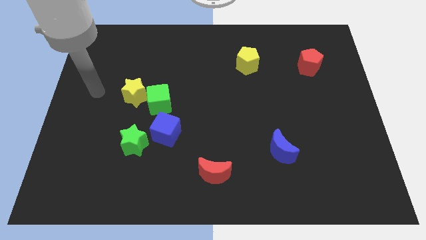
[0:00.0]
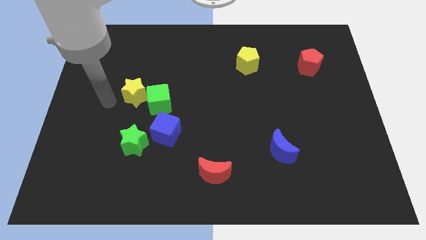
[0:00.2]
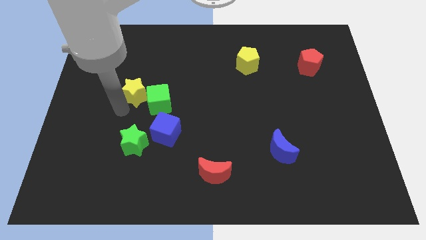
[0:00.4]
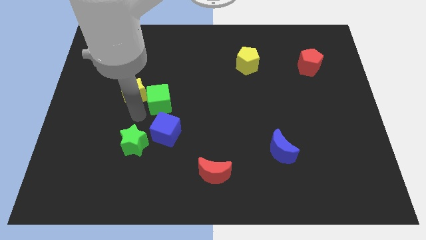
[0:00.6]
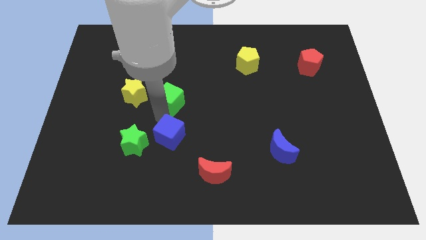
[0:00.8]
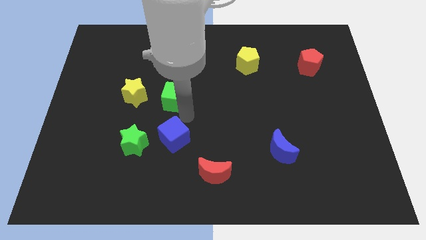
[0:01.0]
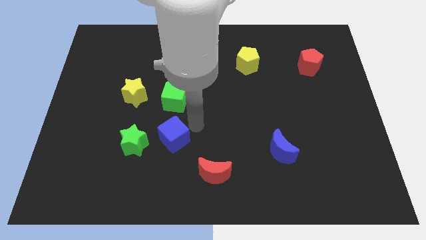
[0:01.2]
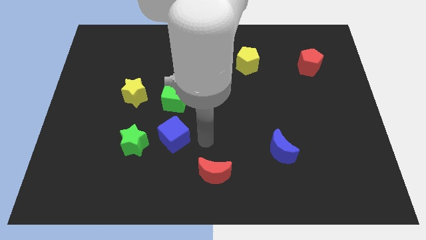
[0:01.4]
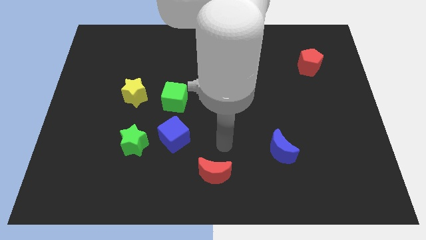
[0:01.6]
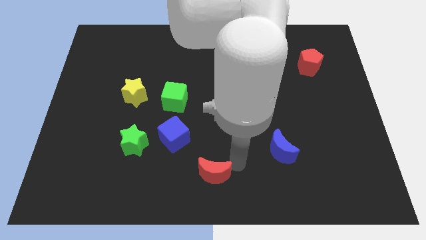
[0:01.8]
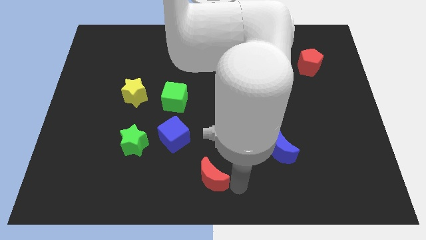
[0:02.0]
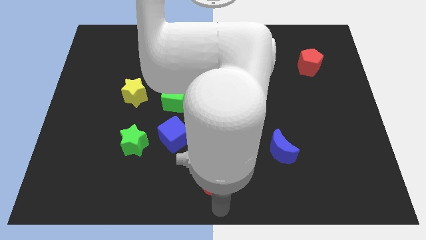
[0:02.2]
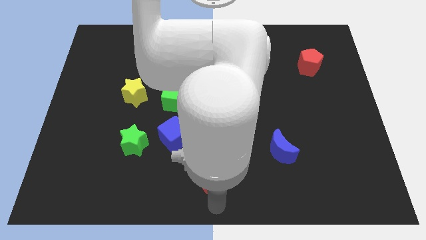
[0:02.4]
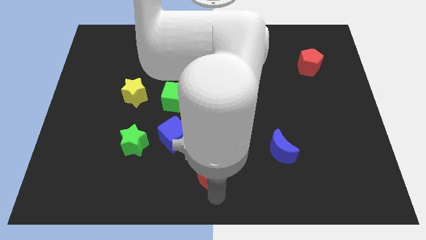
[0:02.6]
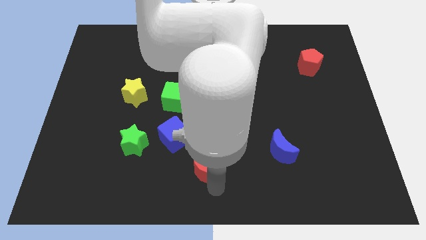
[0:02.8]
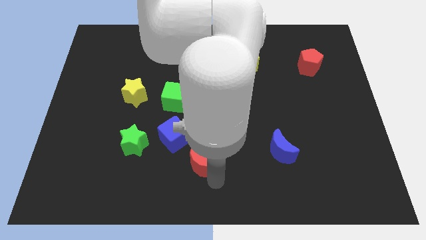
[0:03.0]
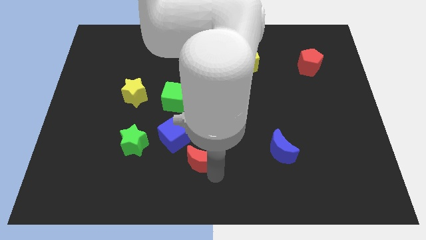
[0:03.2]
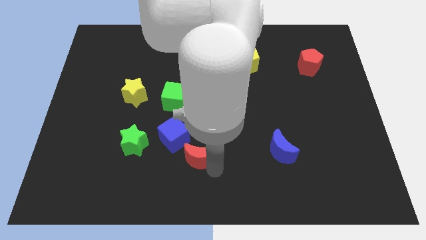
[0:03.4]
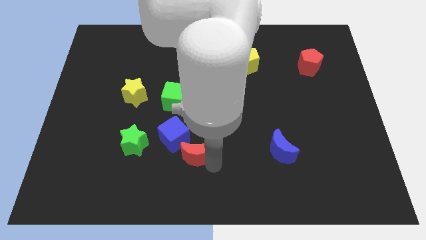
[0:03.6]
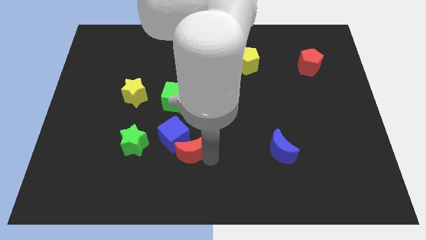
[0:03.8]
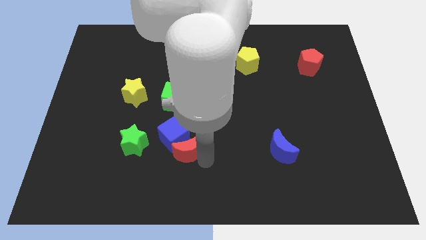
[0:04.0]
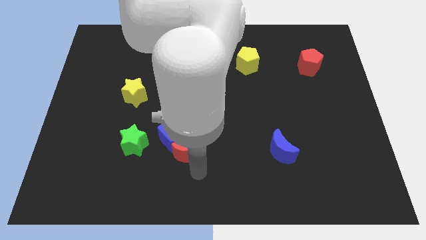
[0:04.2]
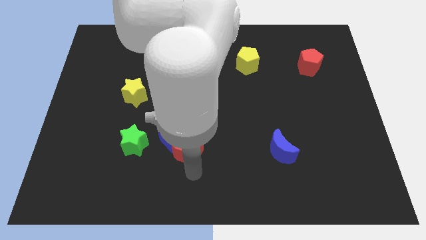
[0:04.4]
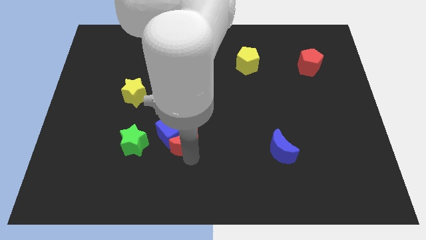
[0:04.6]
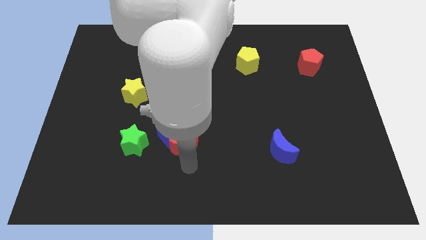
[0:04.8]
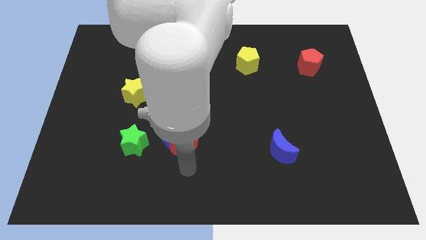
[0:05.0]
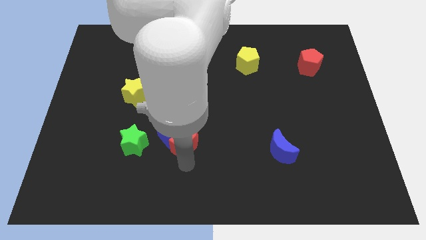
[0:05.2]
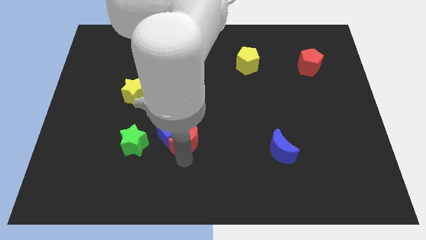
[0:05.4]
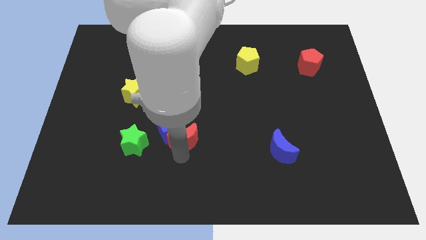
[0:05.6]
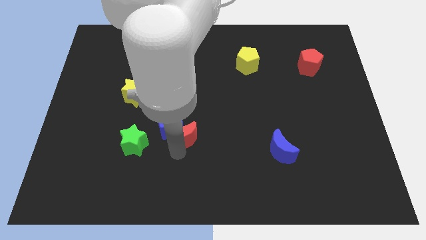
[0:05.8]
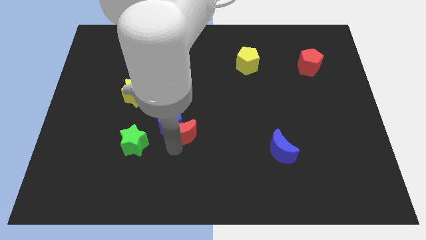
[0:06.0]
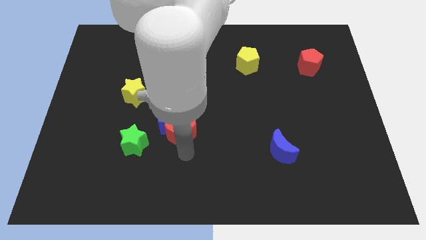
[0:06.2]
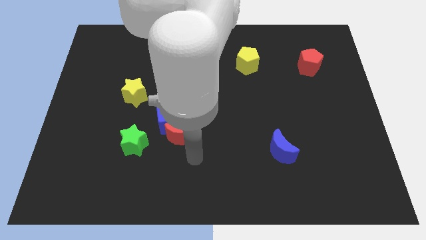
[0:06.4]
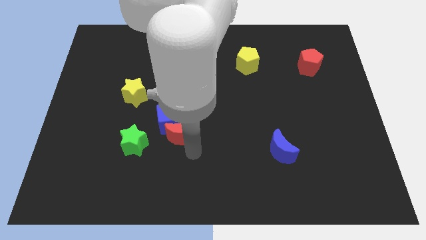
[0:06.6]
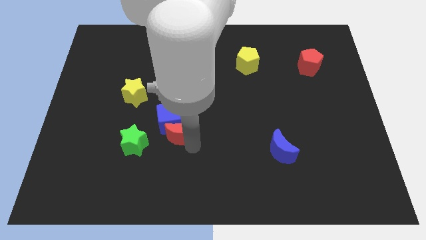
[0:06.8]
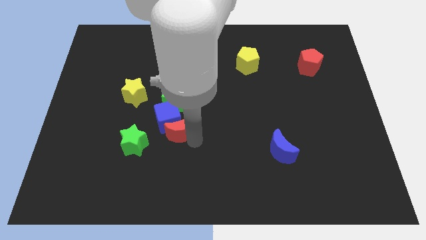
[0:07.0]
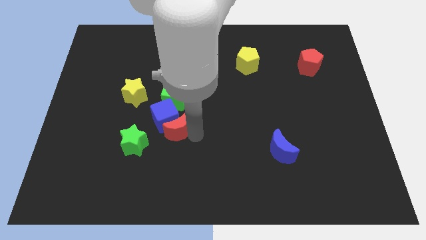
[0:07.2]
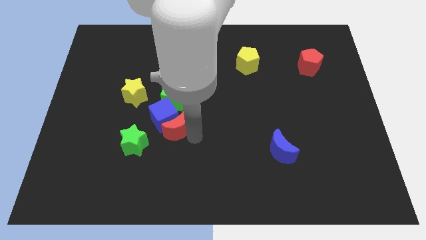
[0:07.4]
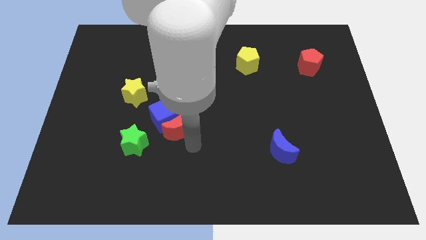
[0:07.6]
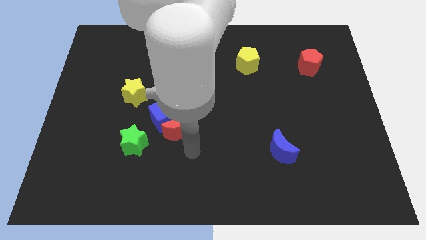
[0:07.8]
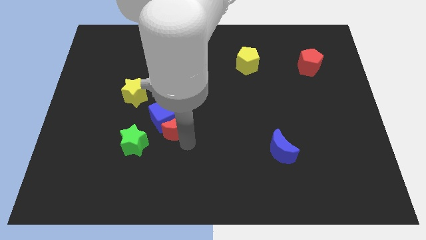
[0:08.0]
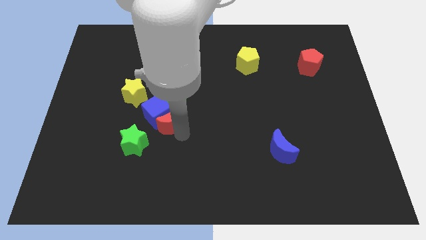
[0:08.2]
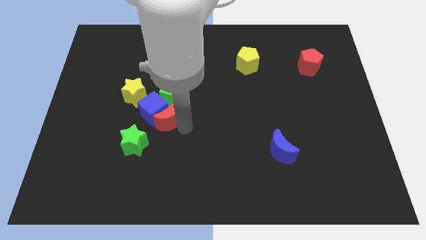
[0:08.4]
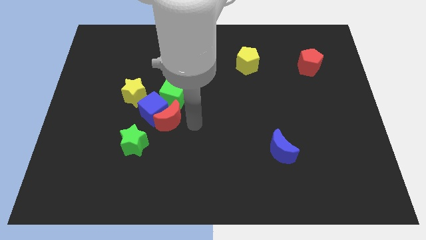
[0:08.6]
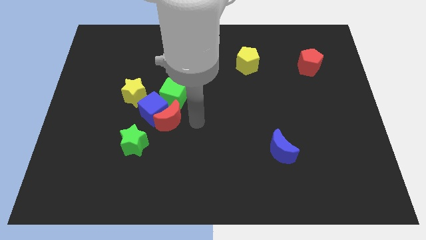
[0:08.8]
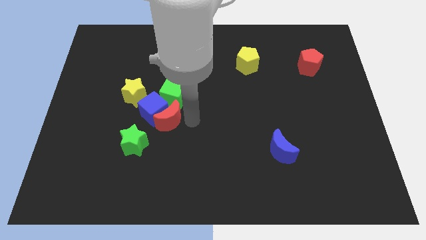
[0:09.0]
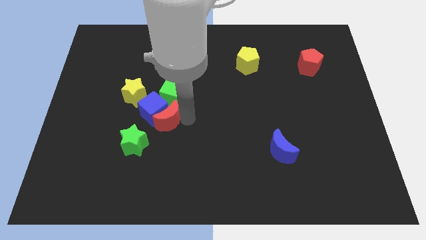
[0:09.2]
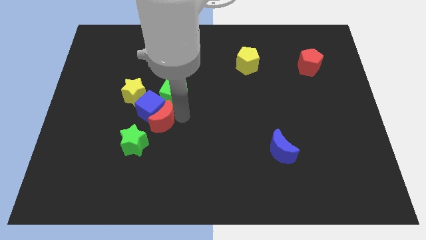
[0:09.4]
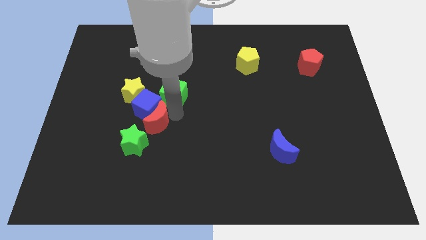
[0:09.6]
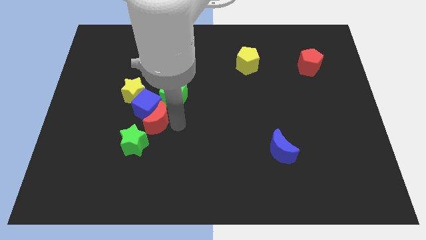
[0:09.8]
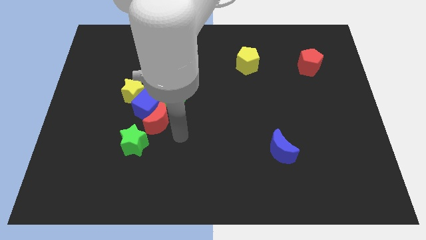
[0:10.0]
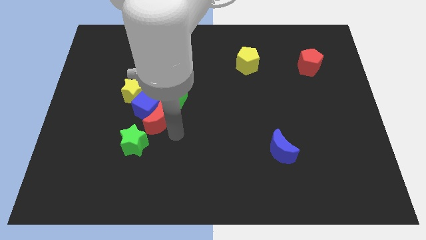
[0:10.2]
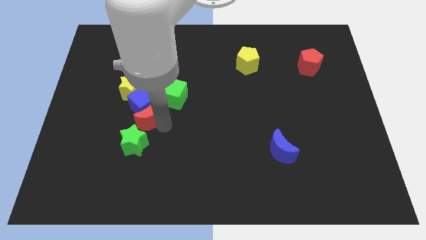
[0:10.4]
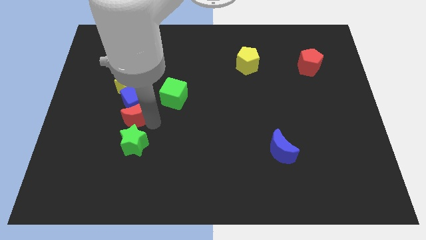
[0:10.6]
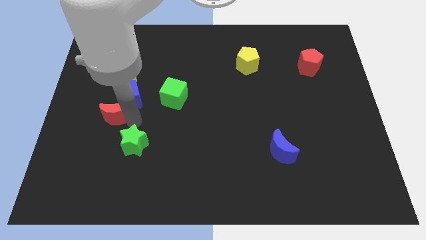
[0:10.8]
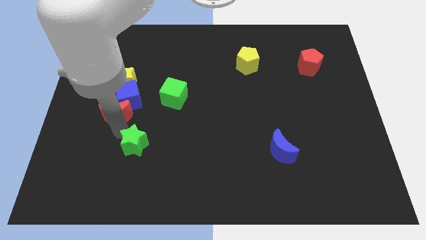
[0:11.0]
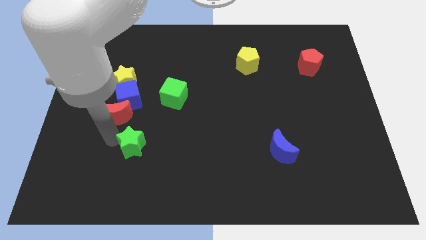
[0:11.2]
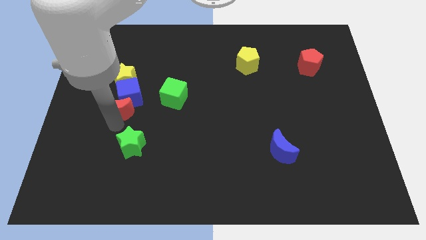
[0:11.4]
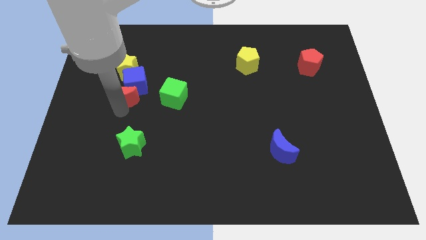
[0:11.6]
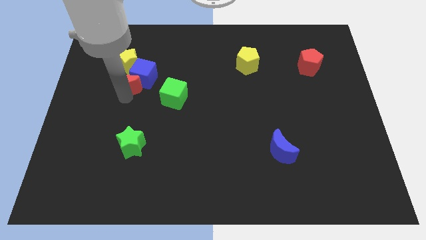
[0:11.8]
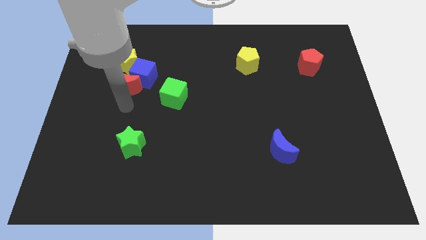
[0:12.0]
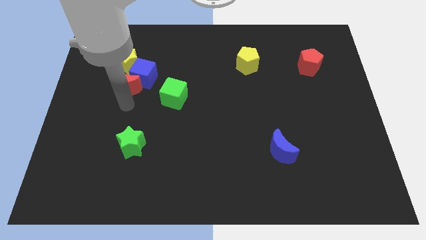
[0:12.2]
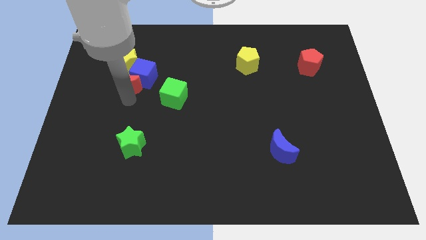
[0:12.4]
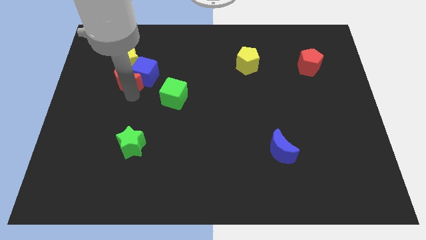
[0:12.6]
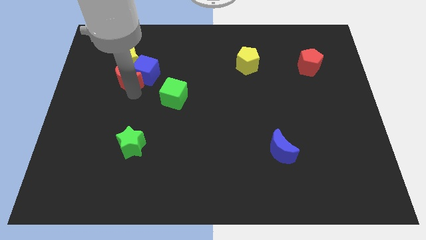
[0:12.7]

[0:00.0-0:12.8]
slide the red moon close to the yellow star
